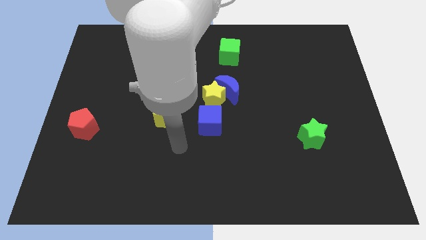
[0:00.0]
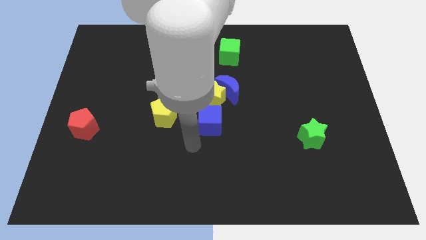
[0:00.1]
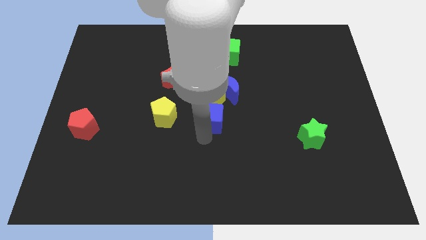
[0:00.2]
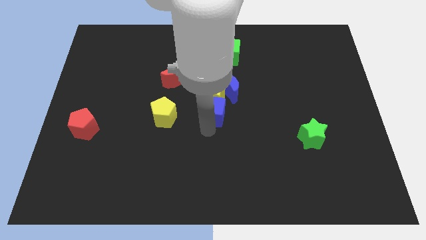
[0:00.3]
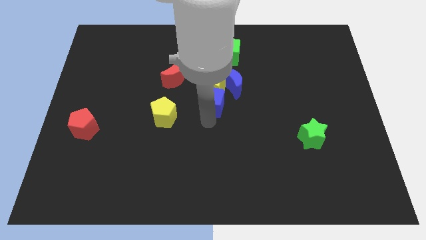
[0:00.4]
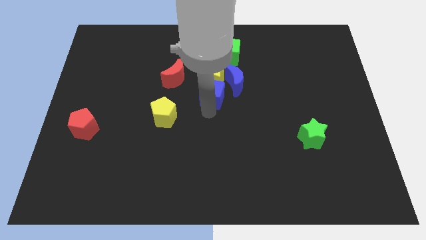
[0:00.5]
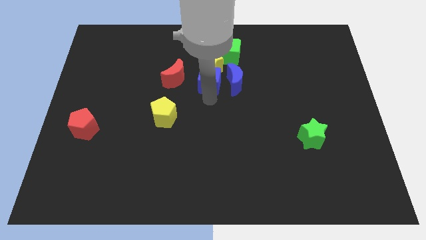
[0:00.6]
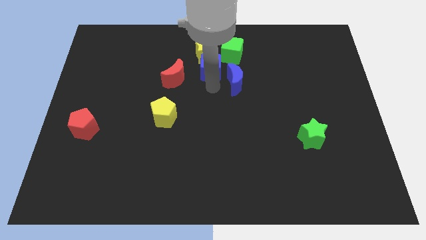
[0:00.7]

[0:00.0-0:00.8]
move the blue moon away from the yellow star

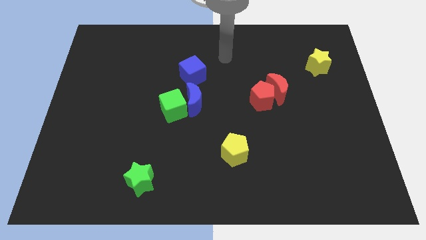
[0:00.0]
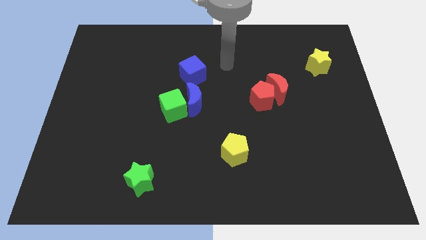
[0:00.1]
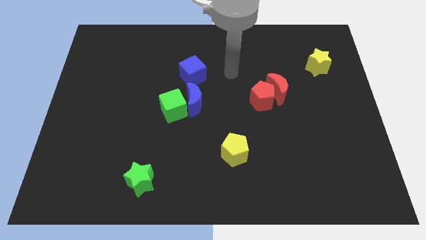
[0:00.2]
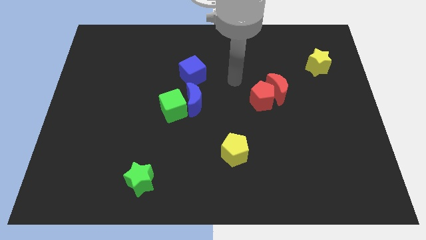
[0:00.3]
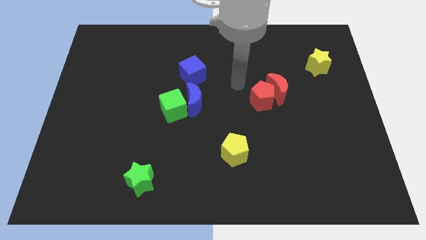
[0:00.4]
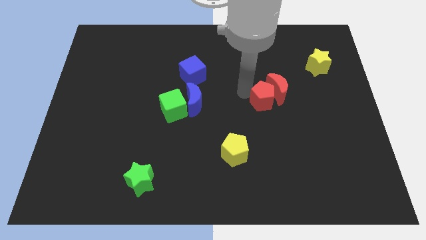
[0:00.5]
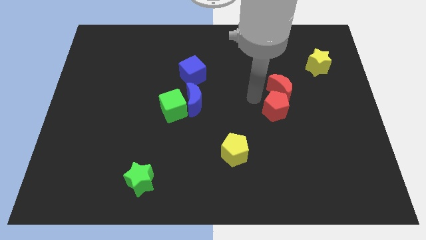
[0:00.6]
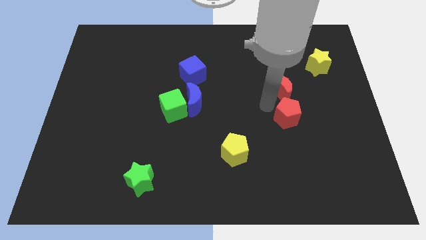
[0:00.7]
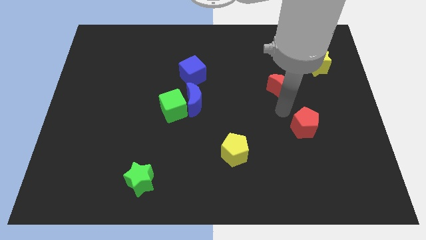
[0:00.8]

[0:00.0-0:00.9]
pull the red moon apart from the red pentagon

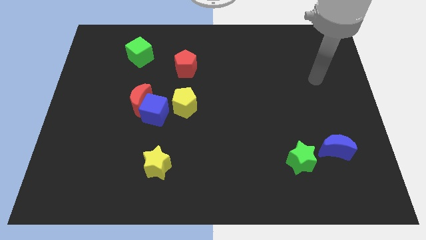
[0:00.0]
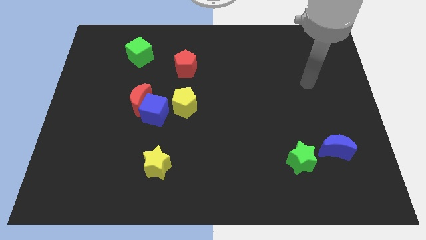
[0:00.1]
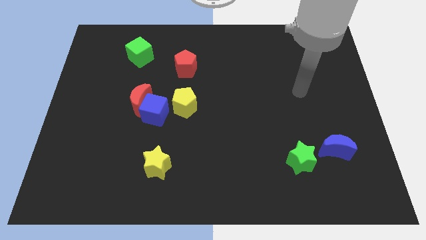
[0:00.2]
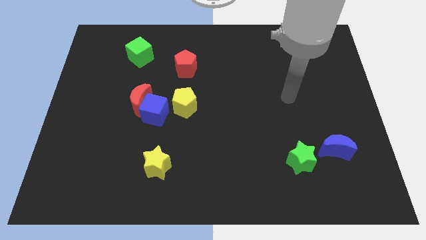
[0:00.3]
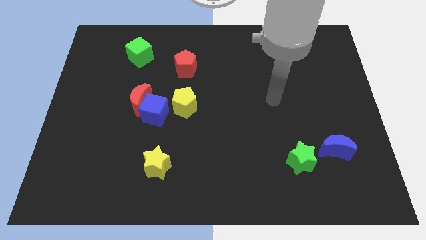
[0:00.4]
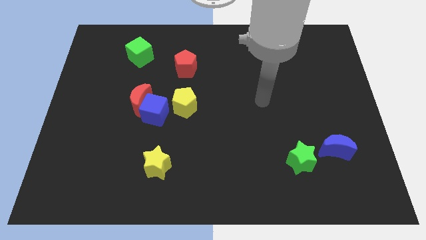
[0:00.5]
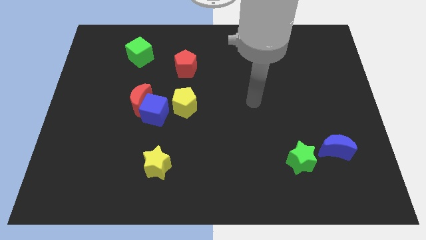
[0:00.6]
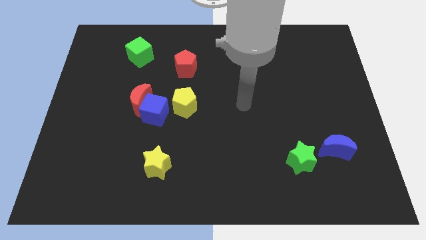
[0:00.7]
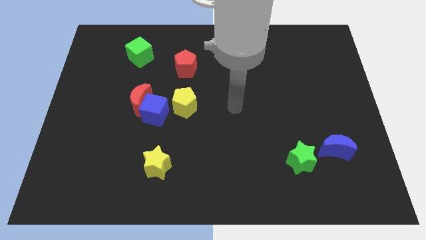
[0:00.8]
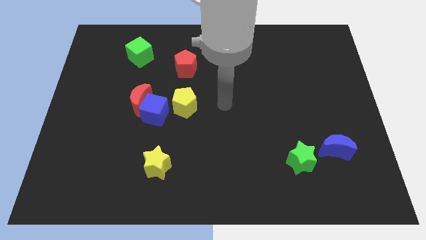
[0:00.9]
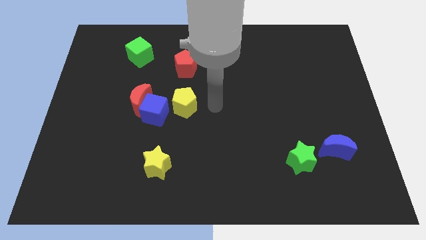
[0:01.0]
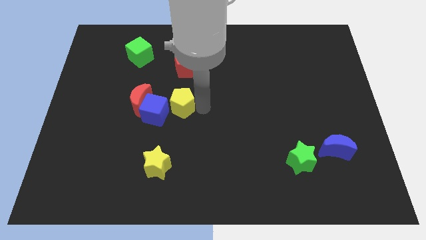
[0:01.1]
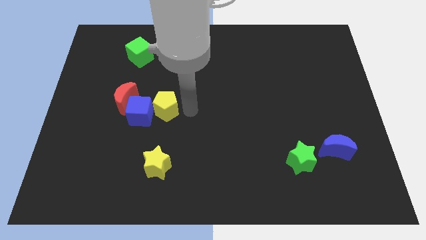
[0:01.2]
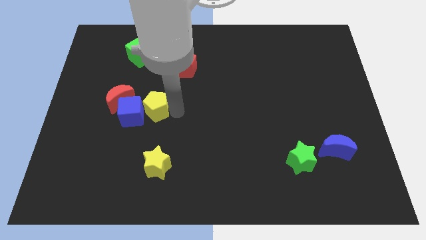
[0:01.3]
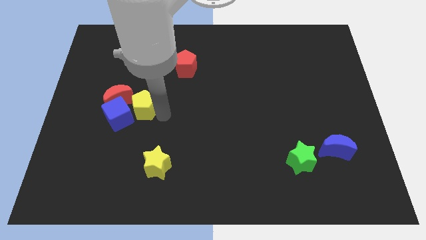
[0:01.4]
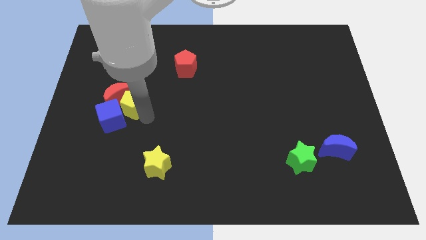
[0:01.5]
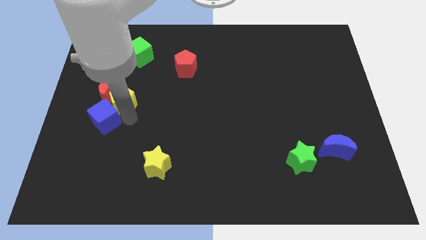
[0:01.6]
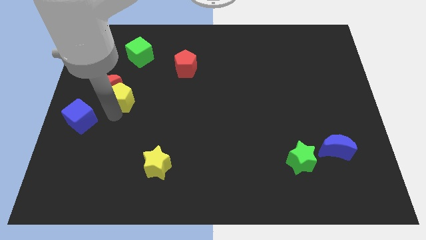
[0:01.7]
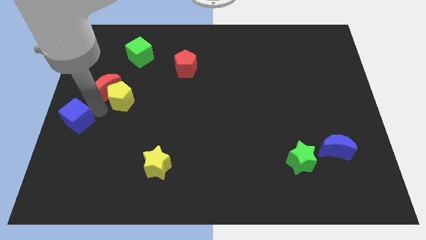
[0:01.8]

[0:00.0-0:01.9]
separate the red moon from the blue cube

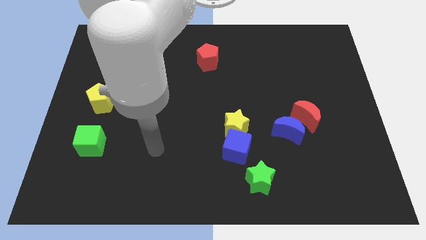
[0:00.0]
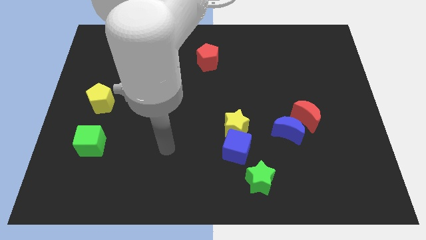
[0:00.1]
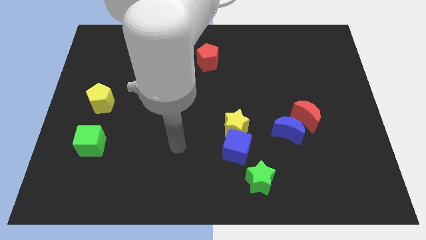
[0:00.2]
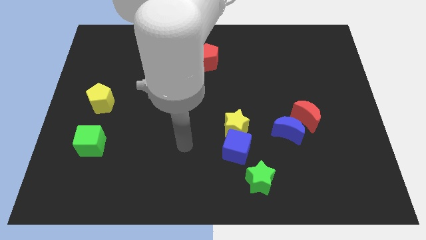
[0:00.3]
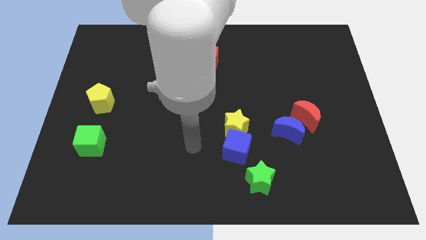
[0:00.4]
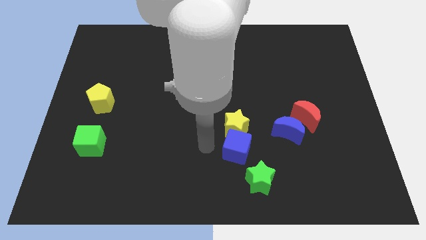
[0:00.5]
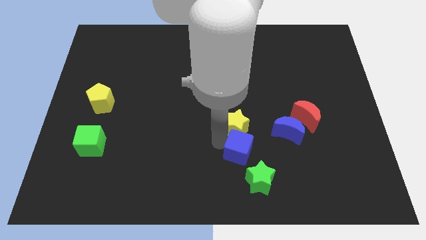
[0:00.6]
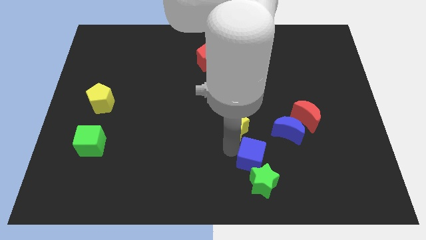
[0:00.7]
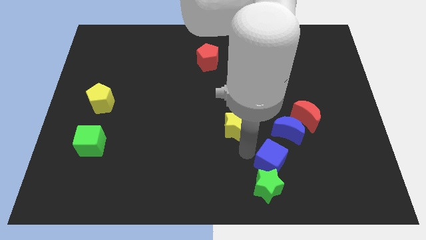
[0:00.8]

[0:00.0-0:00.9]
move the yellow star away from the blue cube

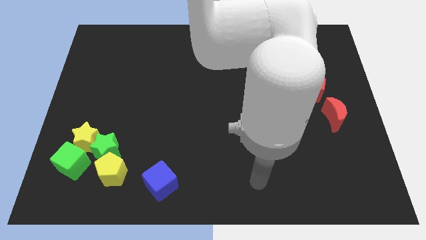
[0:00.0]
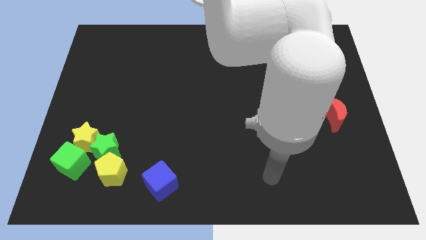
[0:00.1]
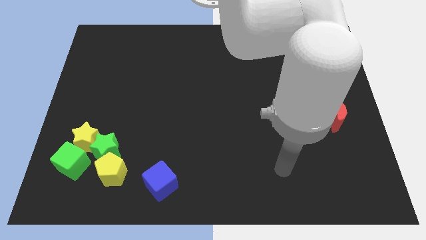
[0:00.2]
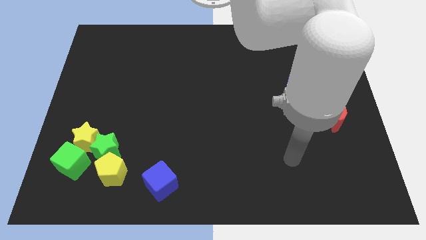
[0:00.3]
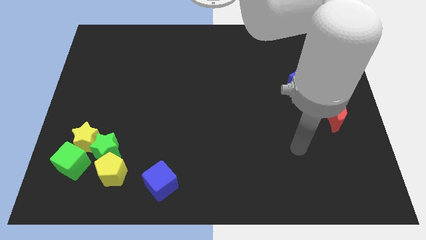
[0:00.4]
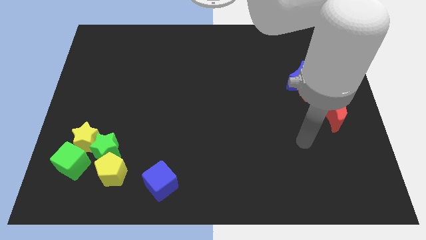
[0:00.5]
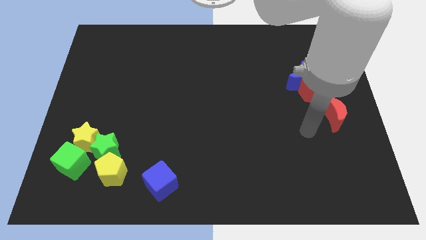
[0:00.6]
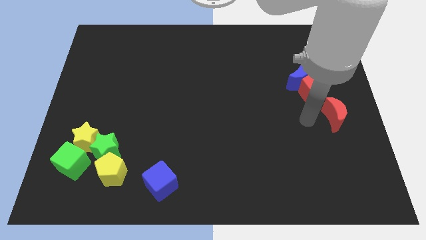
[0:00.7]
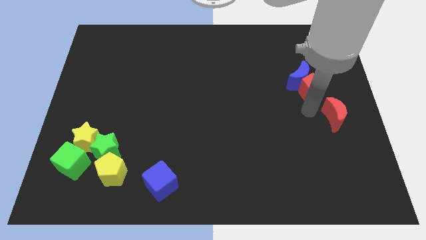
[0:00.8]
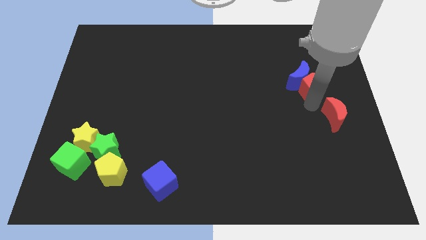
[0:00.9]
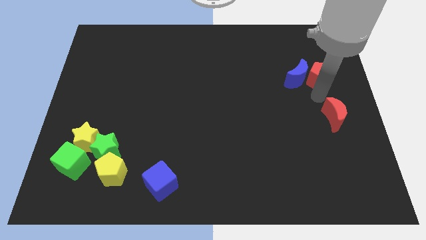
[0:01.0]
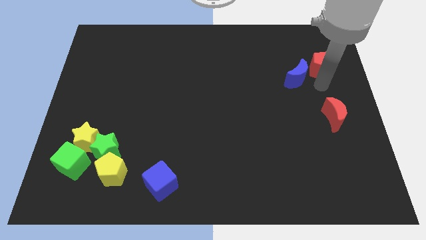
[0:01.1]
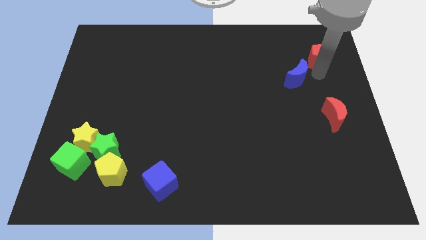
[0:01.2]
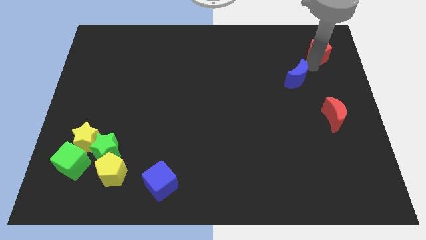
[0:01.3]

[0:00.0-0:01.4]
pull the blue moon apart from the red pentagon

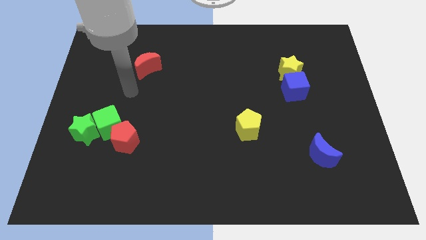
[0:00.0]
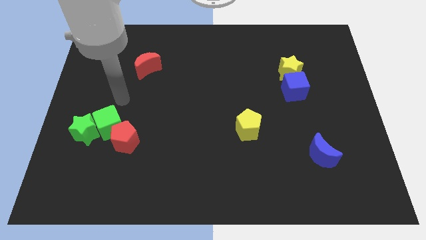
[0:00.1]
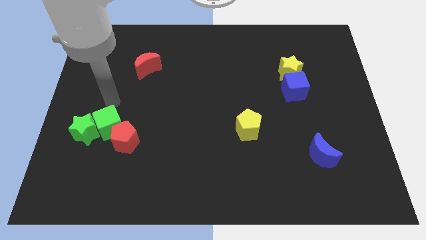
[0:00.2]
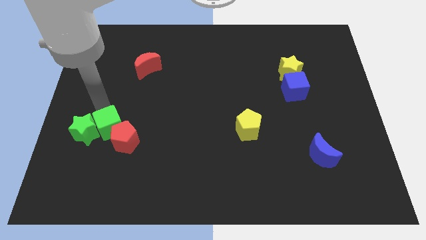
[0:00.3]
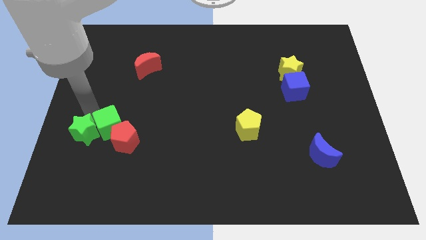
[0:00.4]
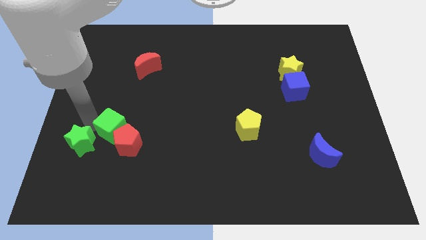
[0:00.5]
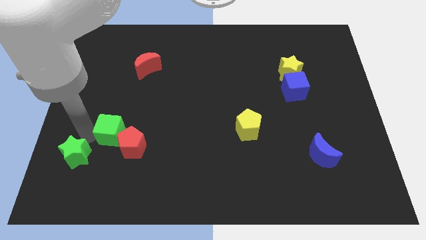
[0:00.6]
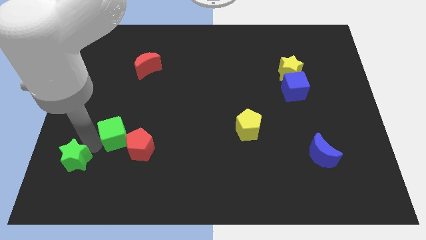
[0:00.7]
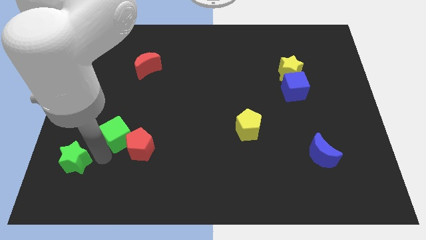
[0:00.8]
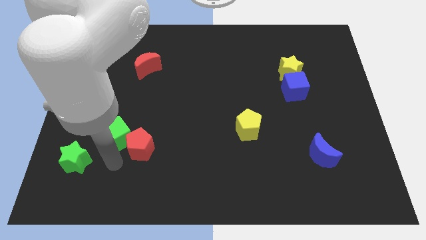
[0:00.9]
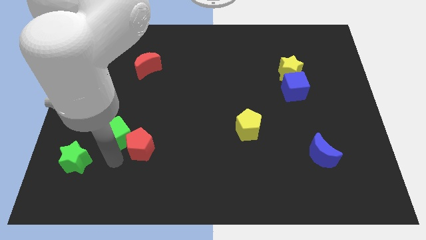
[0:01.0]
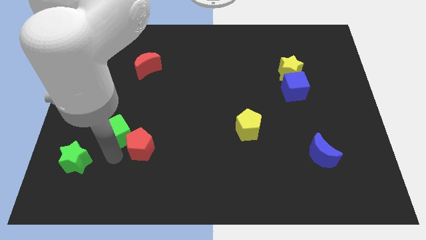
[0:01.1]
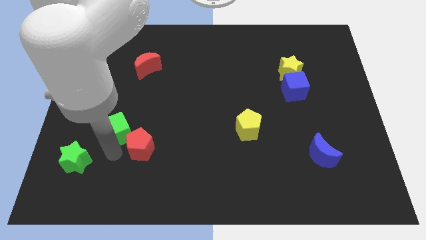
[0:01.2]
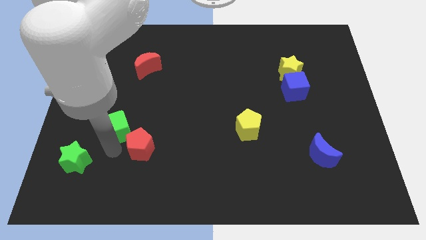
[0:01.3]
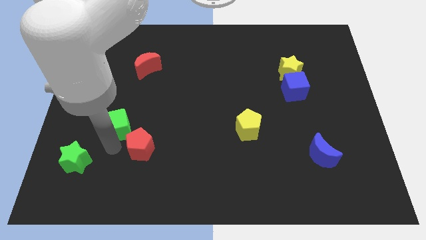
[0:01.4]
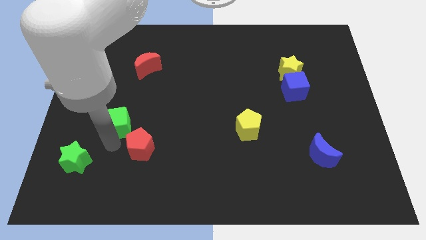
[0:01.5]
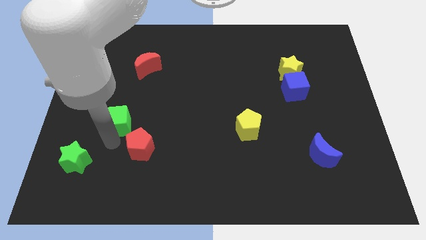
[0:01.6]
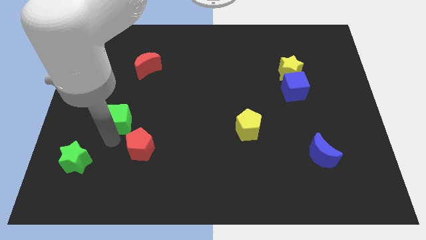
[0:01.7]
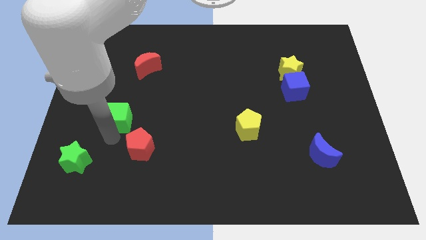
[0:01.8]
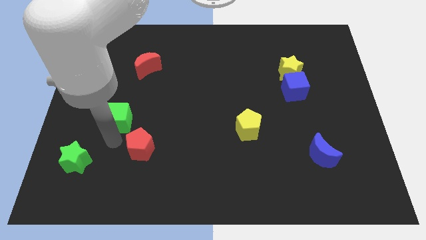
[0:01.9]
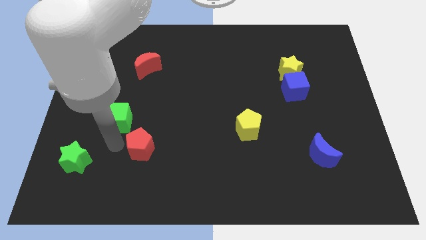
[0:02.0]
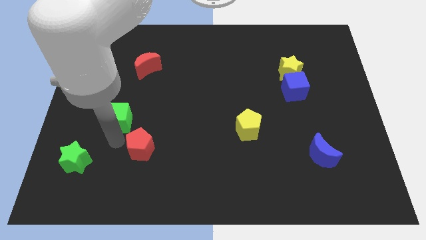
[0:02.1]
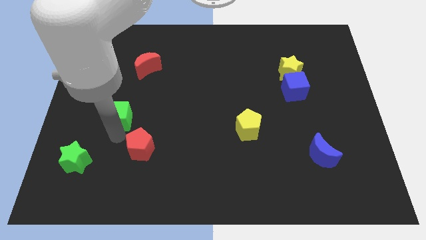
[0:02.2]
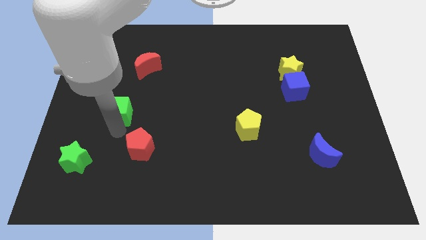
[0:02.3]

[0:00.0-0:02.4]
separate the green cube from the green star and red pentagon

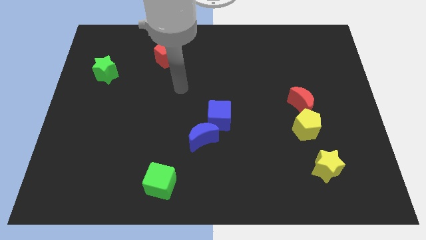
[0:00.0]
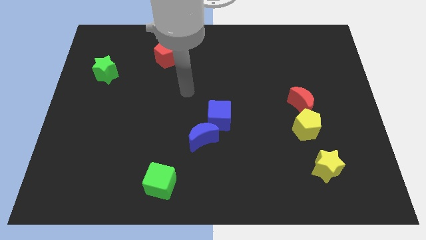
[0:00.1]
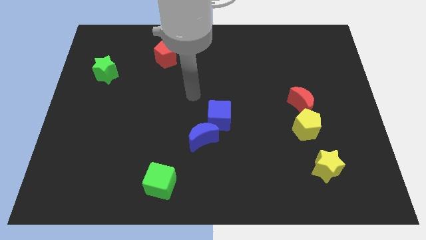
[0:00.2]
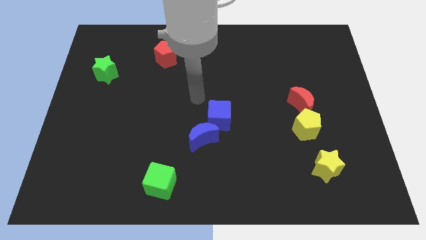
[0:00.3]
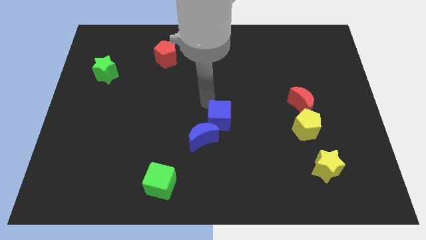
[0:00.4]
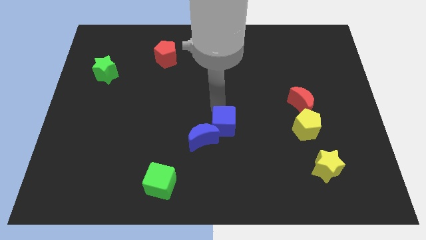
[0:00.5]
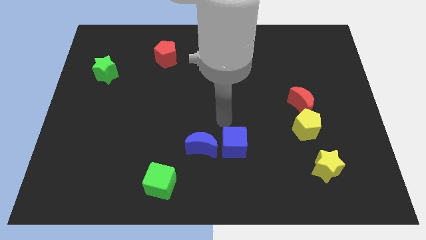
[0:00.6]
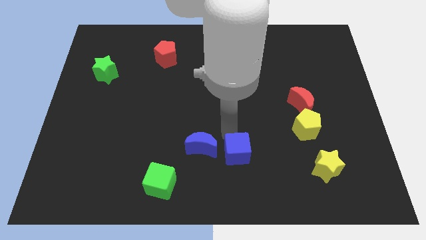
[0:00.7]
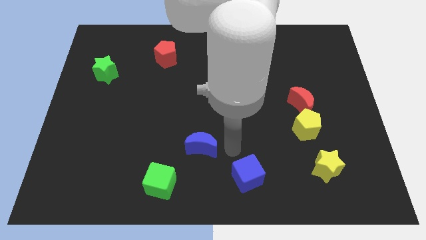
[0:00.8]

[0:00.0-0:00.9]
separate the blue moon from the blue cube

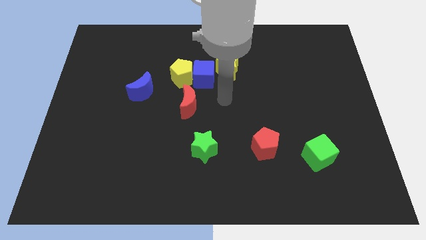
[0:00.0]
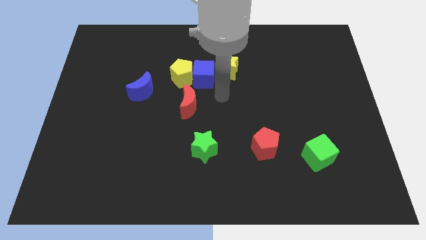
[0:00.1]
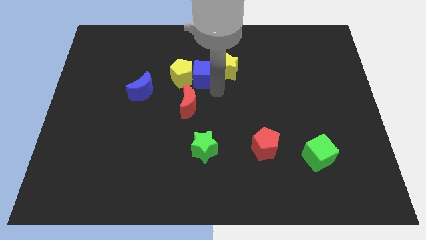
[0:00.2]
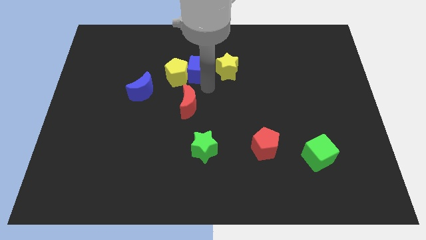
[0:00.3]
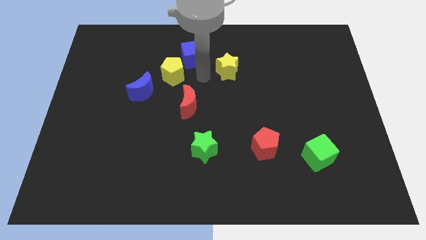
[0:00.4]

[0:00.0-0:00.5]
separate the yellow star from the blue cube
